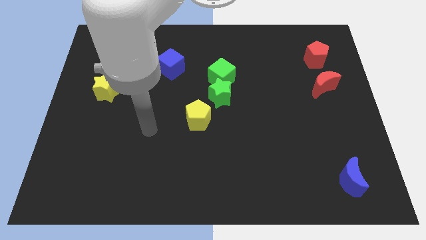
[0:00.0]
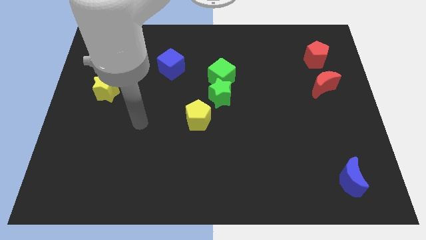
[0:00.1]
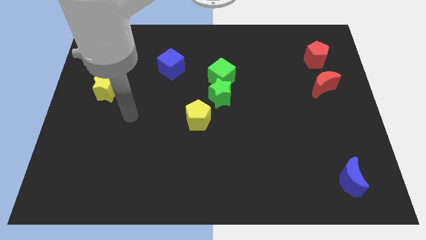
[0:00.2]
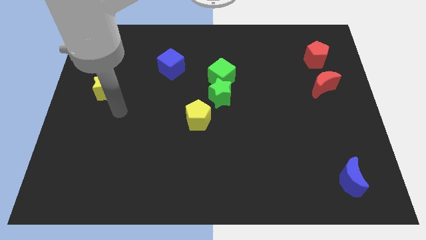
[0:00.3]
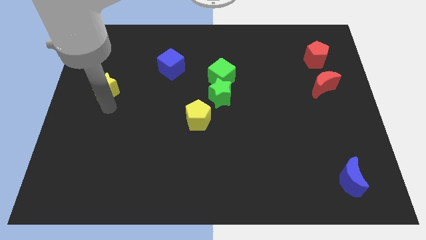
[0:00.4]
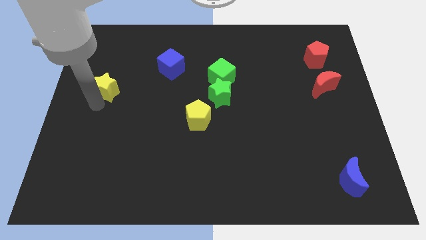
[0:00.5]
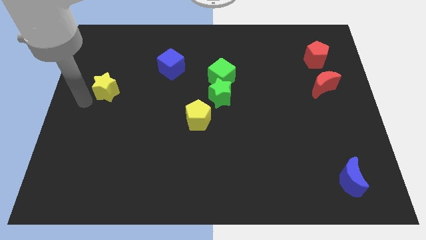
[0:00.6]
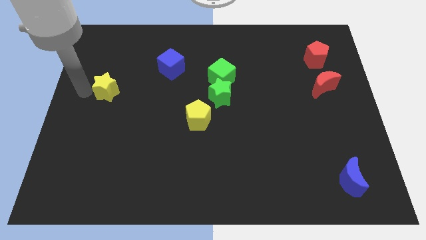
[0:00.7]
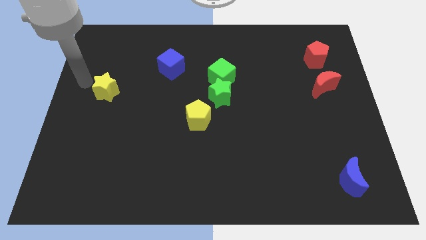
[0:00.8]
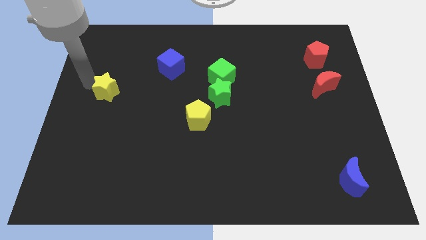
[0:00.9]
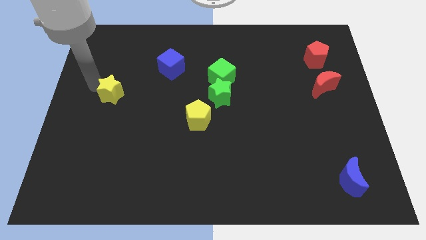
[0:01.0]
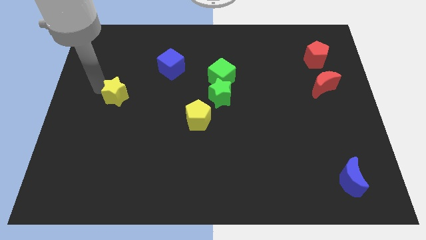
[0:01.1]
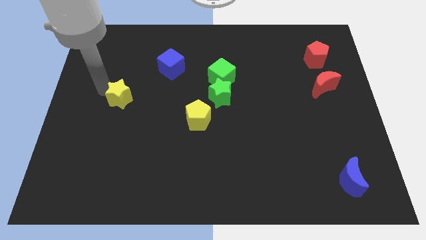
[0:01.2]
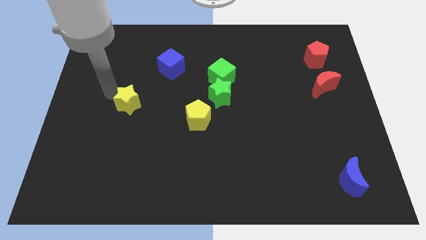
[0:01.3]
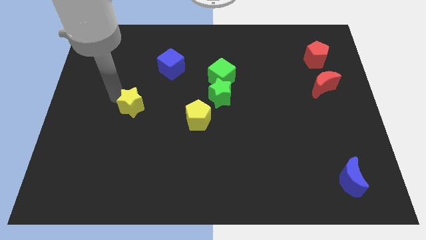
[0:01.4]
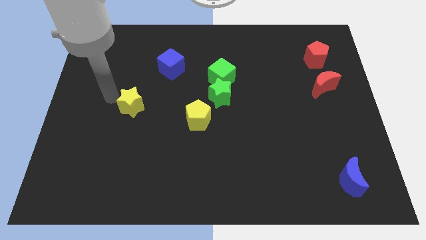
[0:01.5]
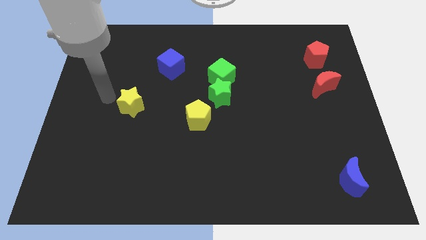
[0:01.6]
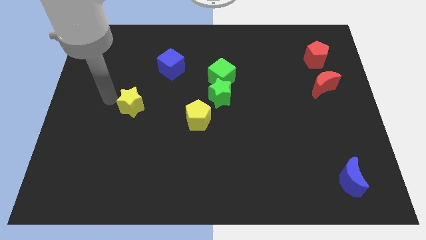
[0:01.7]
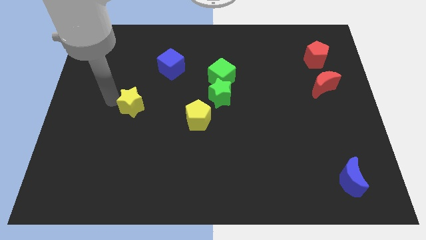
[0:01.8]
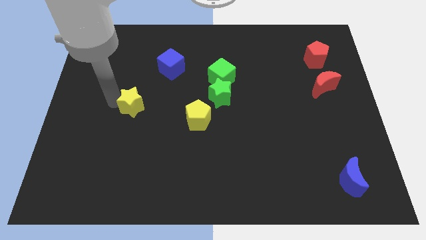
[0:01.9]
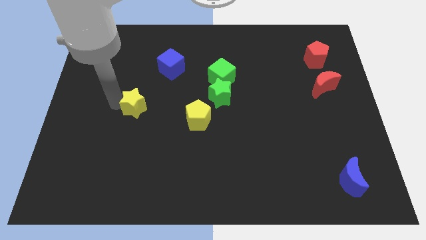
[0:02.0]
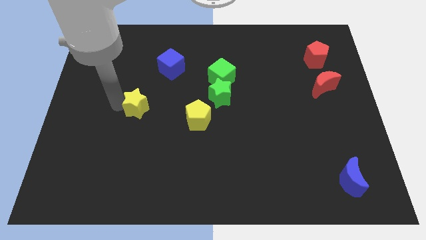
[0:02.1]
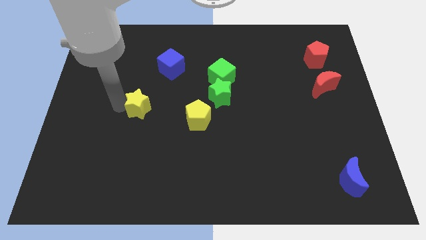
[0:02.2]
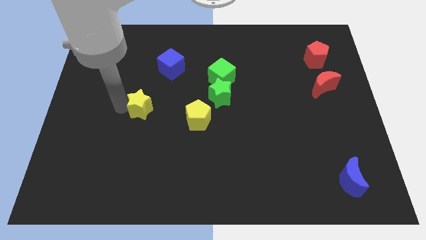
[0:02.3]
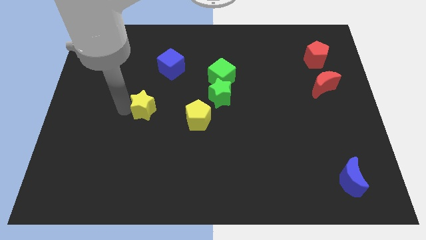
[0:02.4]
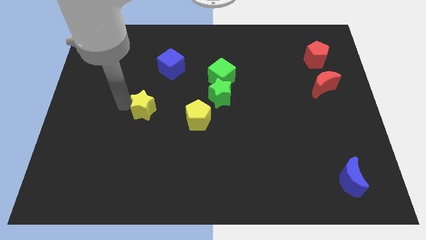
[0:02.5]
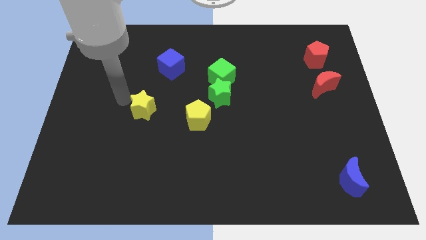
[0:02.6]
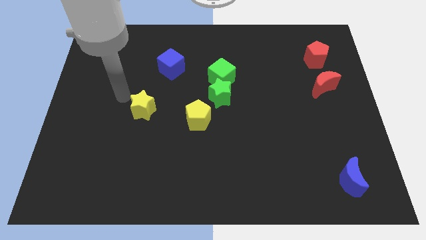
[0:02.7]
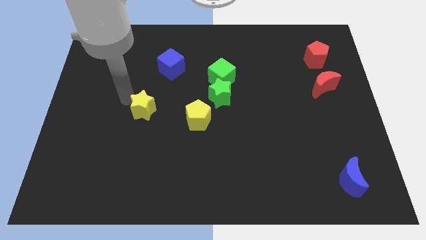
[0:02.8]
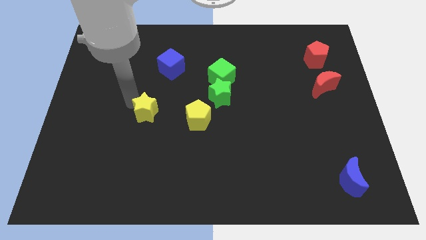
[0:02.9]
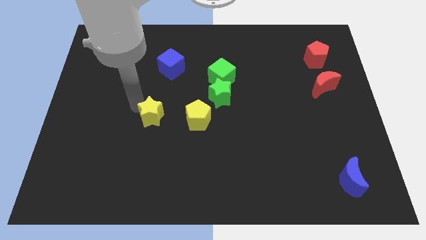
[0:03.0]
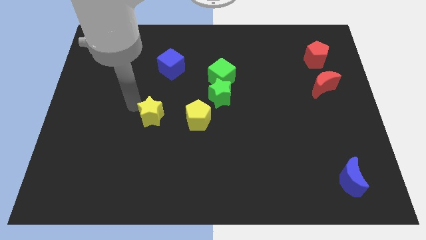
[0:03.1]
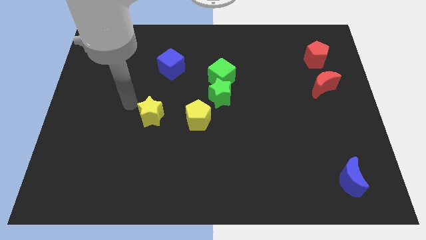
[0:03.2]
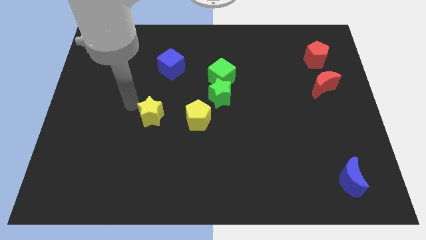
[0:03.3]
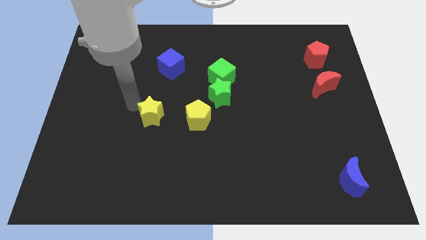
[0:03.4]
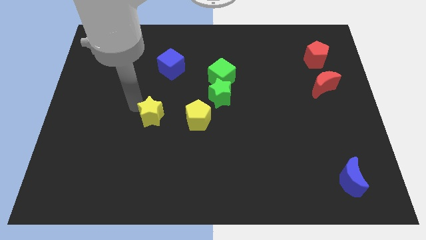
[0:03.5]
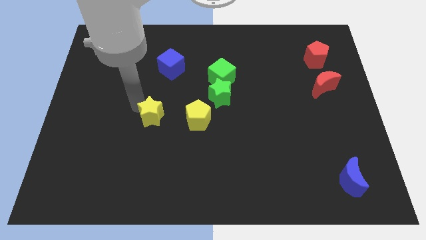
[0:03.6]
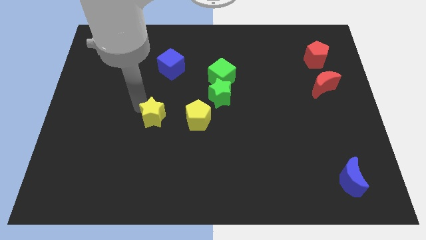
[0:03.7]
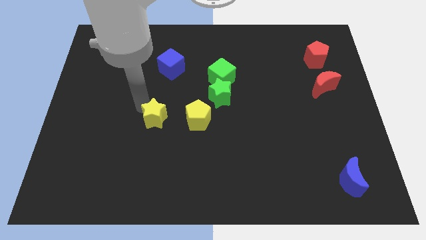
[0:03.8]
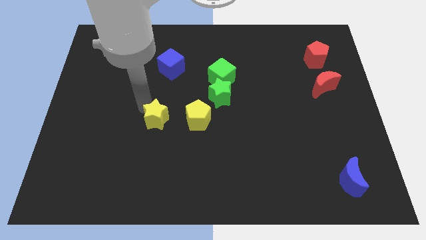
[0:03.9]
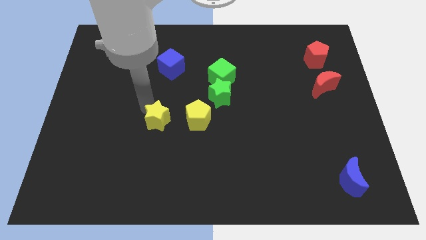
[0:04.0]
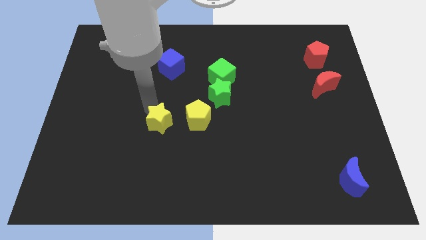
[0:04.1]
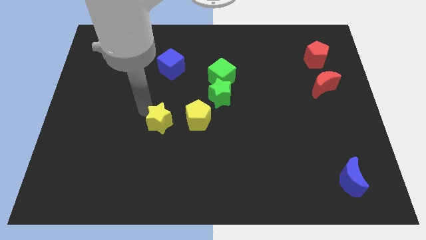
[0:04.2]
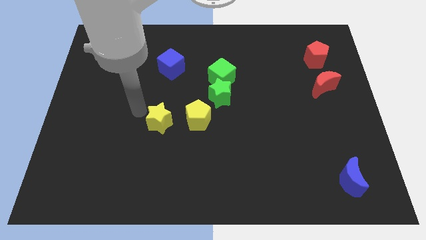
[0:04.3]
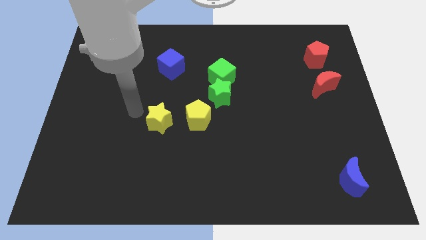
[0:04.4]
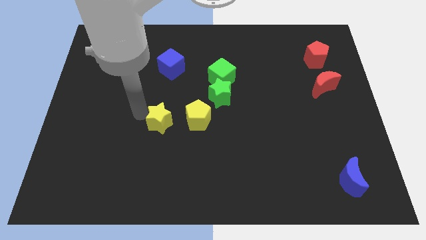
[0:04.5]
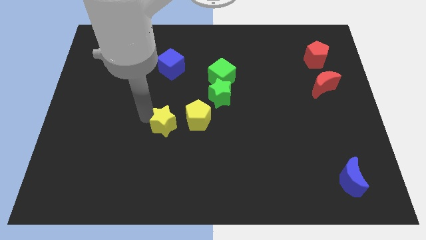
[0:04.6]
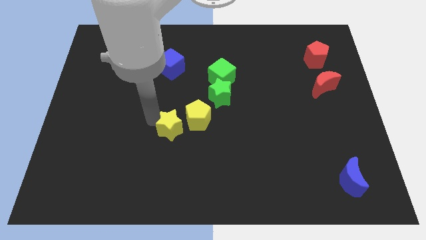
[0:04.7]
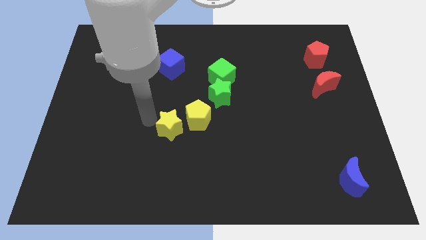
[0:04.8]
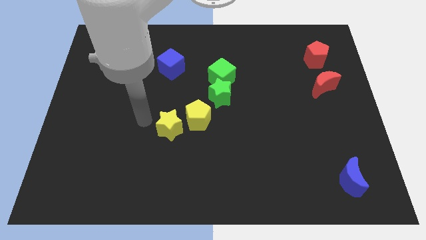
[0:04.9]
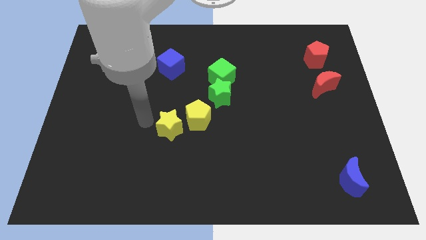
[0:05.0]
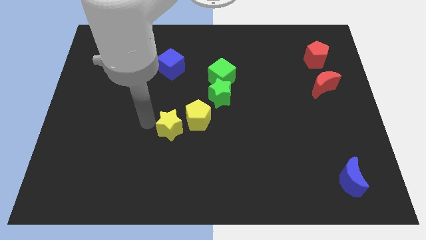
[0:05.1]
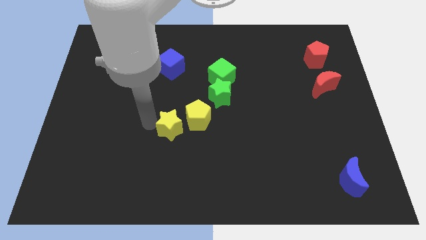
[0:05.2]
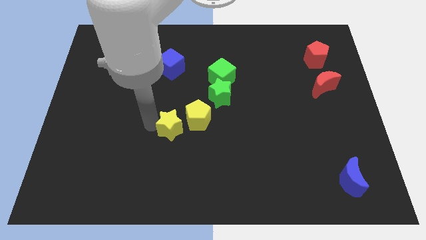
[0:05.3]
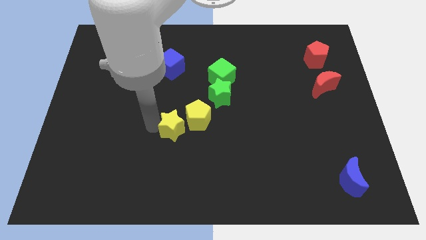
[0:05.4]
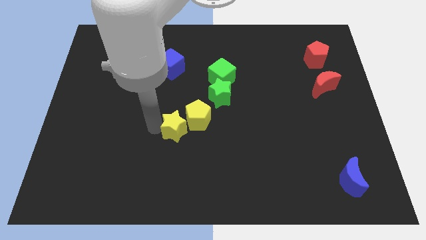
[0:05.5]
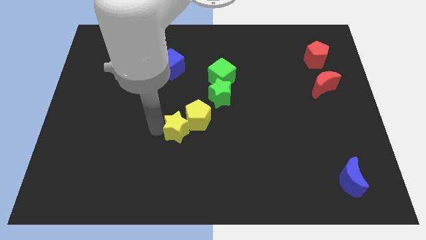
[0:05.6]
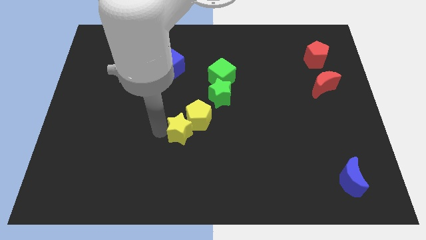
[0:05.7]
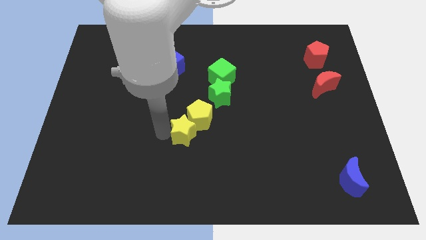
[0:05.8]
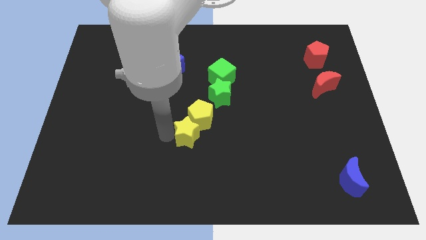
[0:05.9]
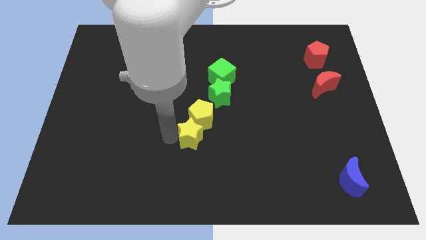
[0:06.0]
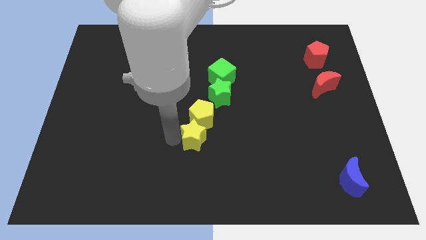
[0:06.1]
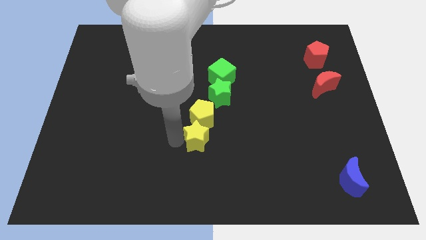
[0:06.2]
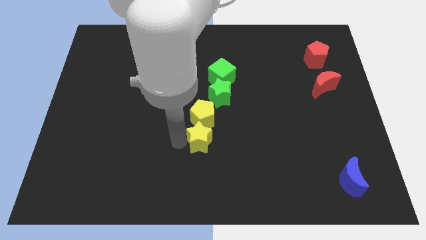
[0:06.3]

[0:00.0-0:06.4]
move the yellow star diagonally down and to the right of the yellow pentagon
